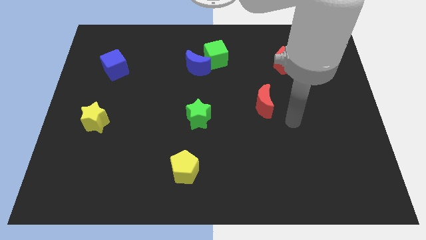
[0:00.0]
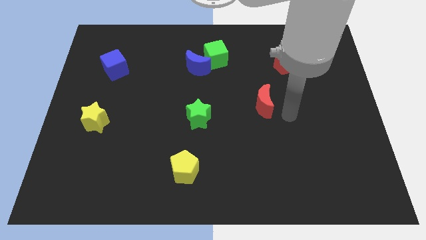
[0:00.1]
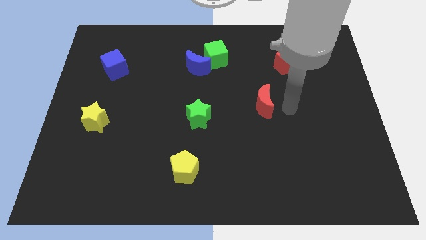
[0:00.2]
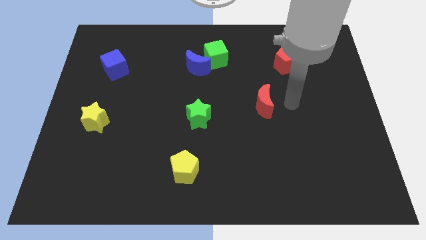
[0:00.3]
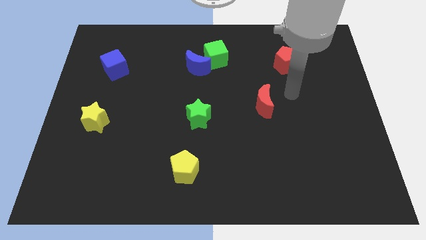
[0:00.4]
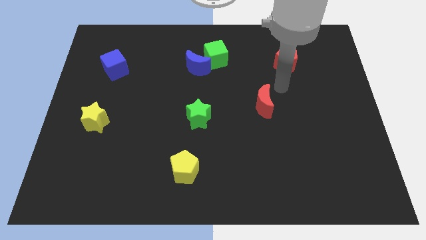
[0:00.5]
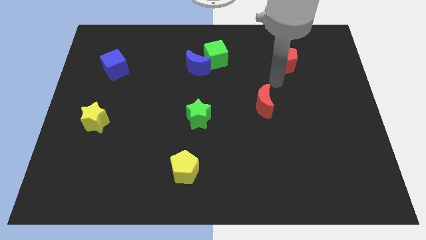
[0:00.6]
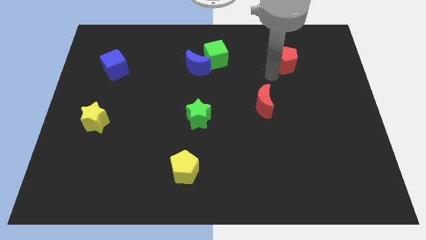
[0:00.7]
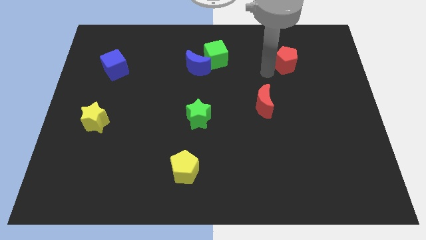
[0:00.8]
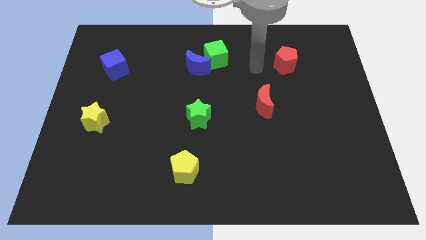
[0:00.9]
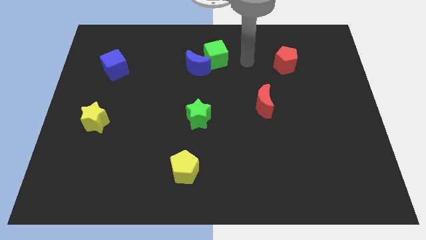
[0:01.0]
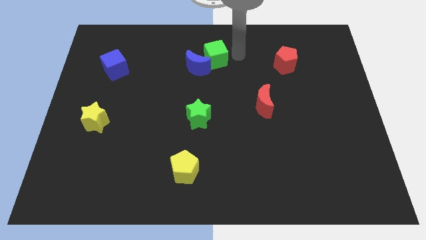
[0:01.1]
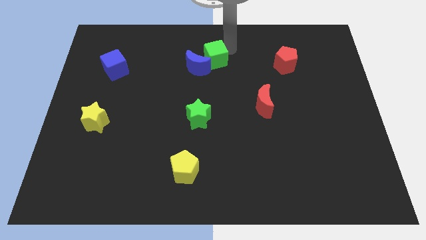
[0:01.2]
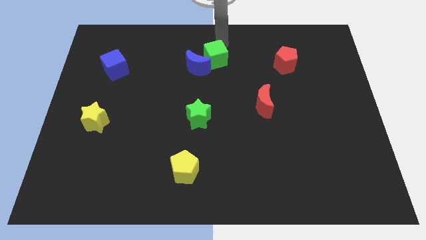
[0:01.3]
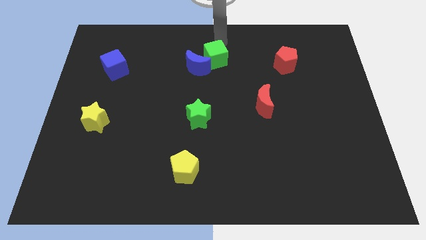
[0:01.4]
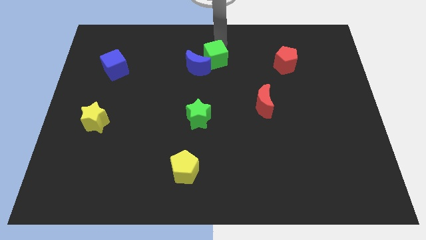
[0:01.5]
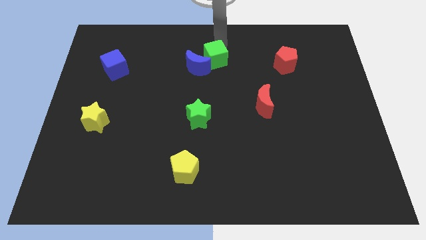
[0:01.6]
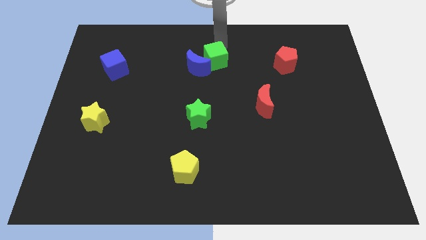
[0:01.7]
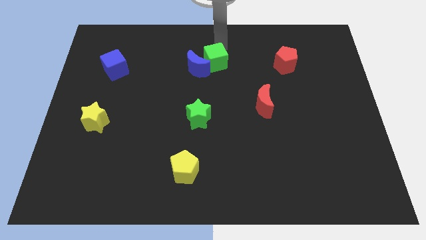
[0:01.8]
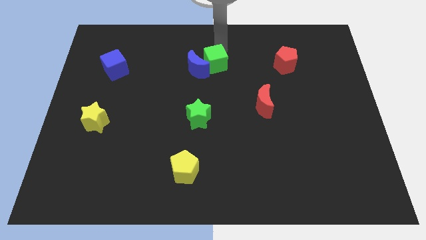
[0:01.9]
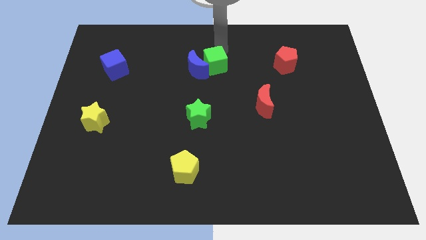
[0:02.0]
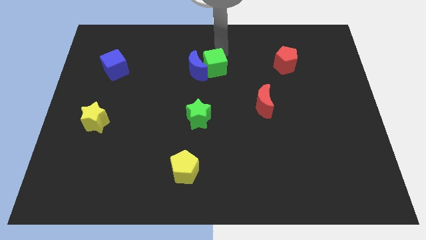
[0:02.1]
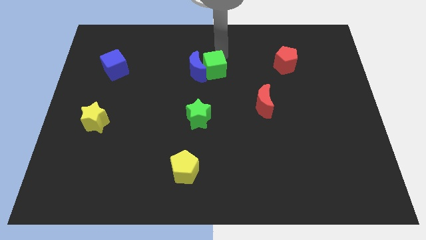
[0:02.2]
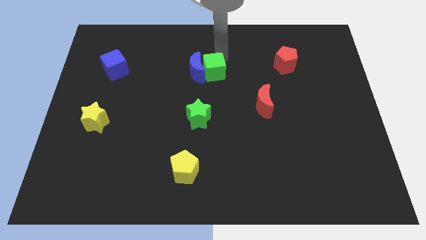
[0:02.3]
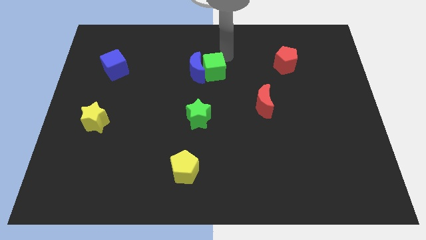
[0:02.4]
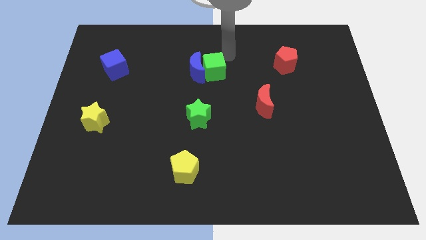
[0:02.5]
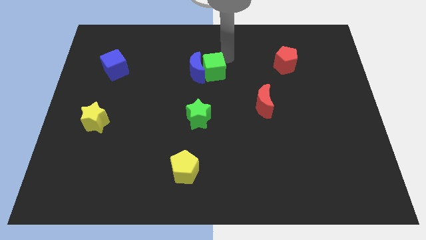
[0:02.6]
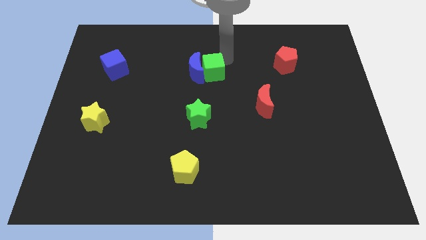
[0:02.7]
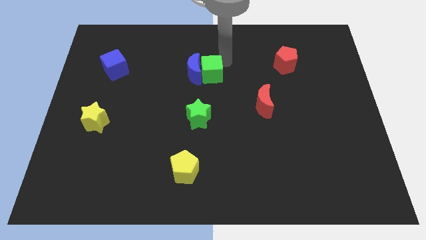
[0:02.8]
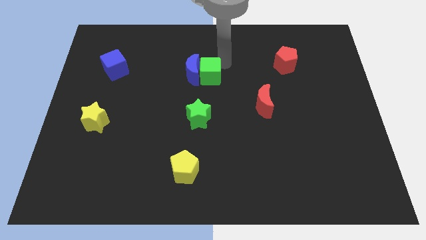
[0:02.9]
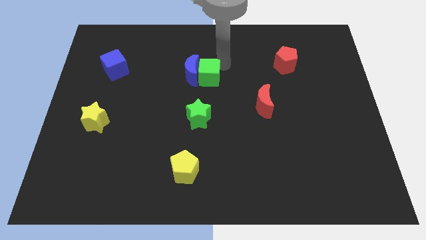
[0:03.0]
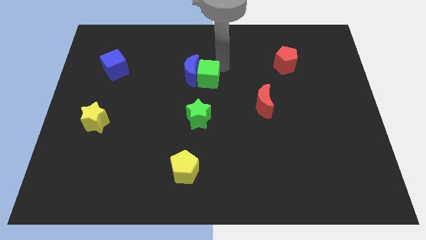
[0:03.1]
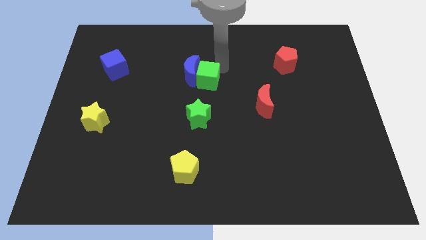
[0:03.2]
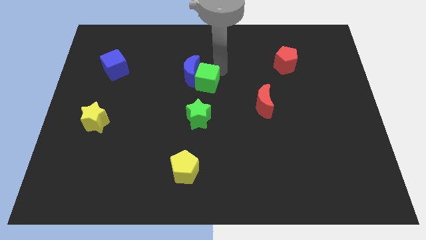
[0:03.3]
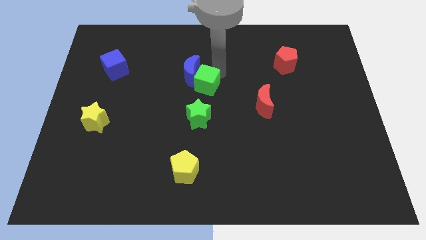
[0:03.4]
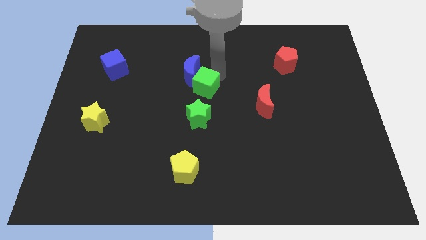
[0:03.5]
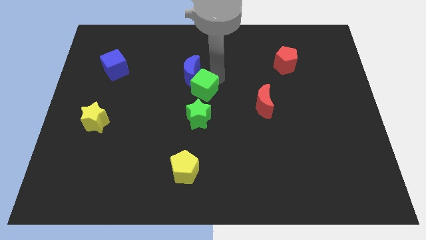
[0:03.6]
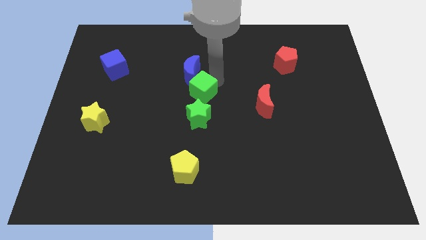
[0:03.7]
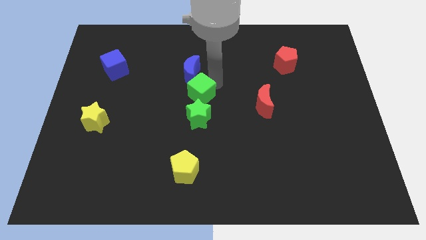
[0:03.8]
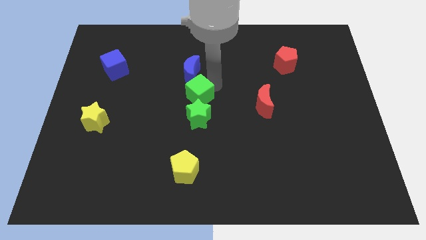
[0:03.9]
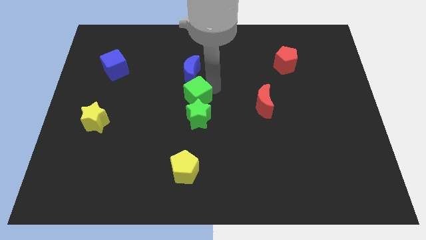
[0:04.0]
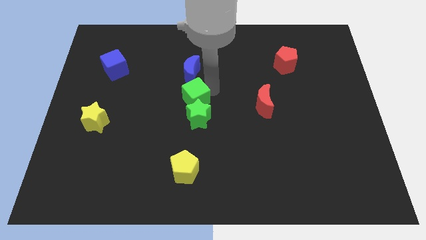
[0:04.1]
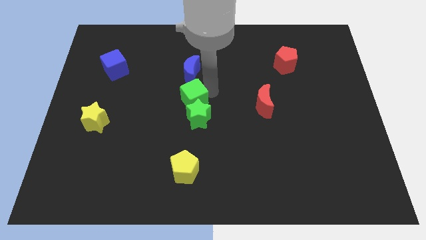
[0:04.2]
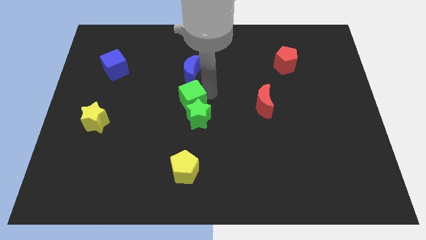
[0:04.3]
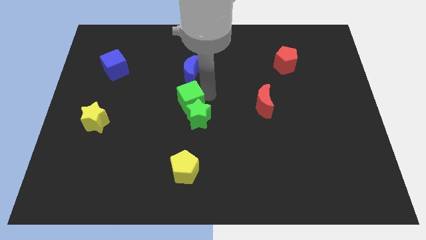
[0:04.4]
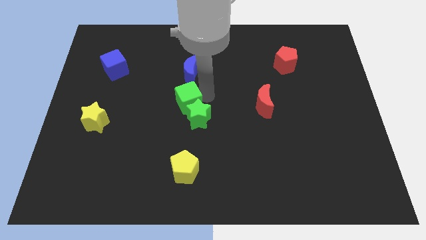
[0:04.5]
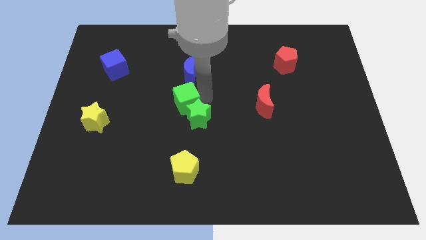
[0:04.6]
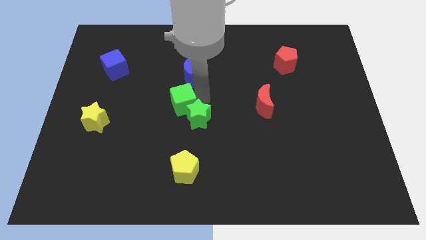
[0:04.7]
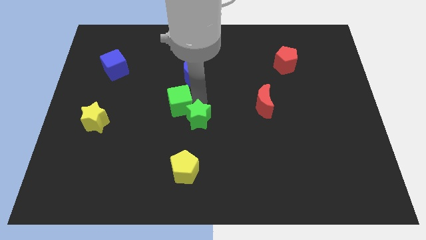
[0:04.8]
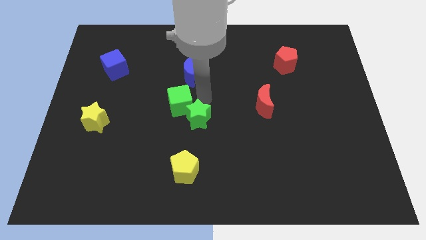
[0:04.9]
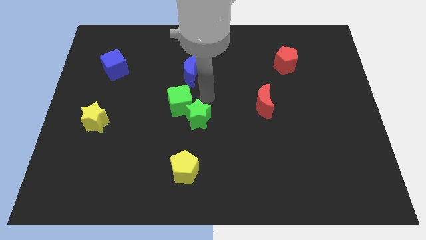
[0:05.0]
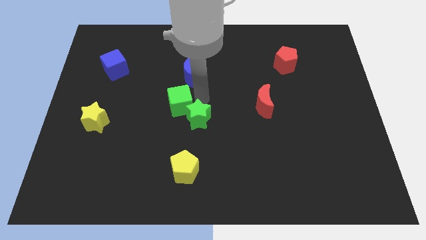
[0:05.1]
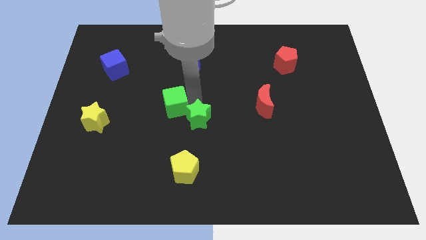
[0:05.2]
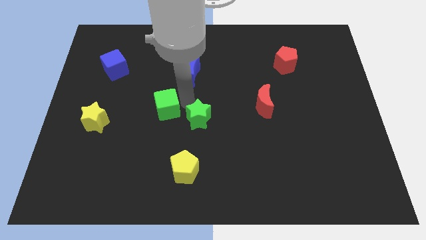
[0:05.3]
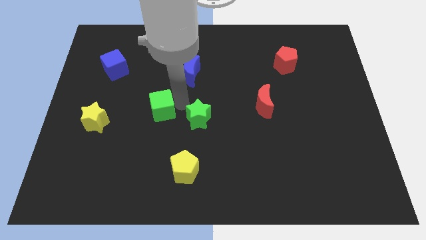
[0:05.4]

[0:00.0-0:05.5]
move the green cube down and then left

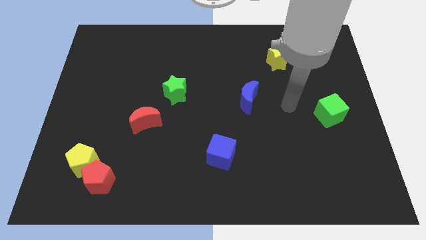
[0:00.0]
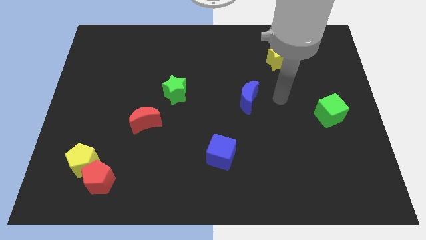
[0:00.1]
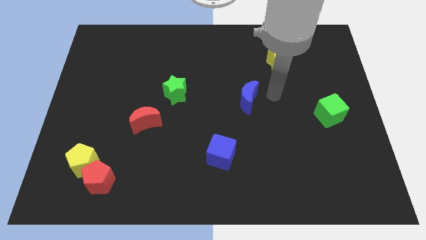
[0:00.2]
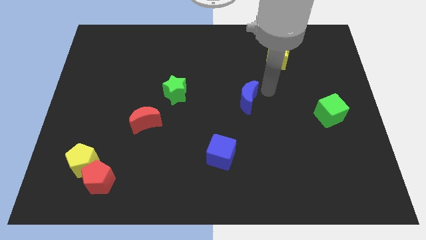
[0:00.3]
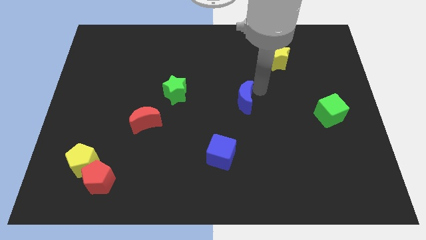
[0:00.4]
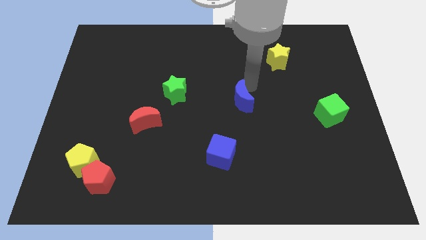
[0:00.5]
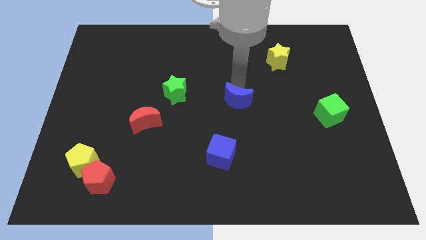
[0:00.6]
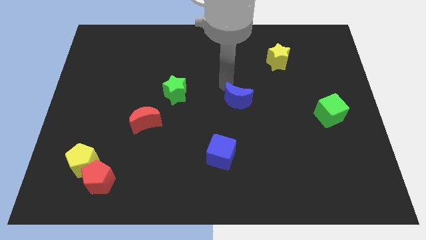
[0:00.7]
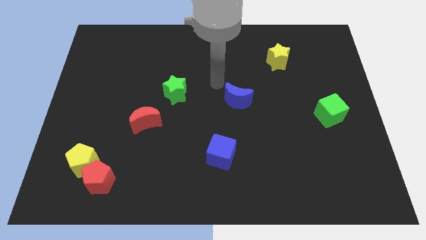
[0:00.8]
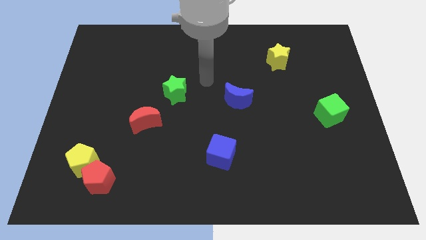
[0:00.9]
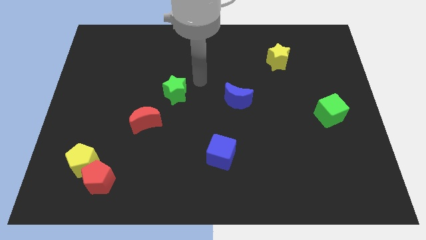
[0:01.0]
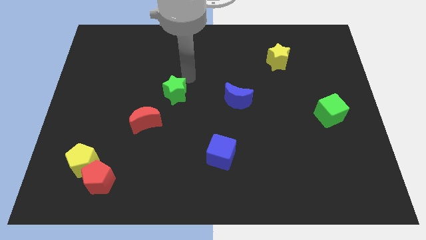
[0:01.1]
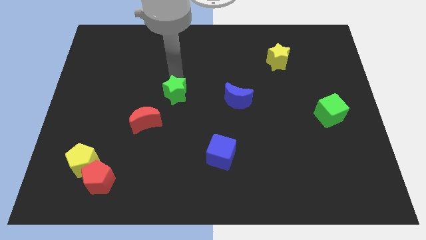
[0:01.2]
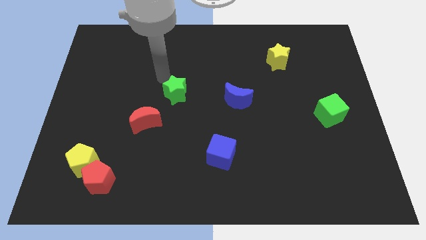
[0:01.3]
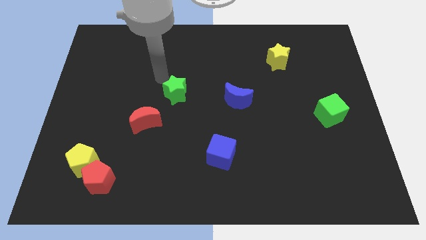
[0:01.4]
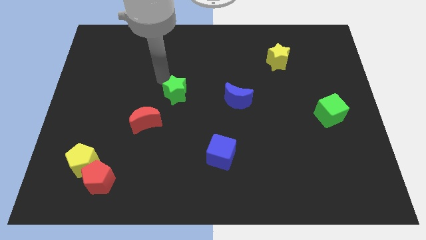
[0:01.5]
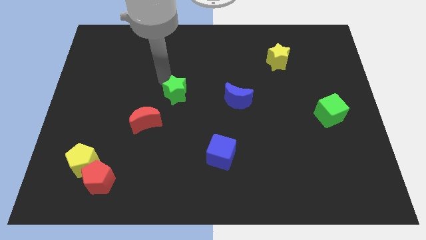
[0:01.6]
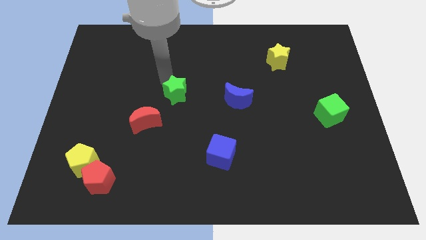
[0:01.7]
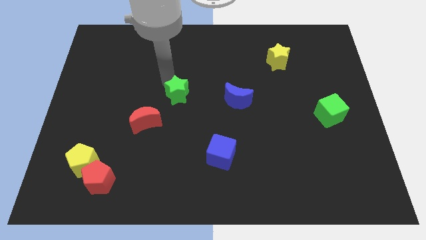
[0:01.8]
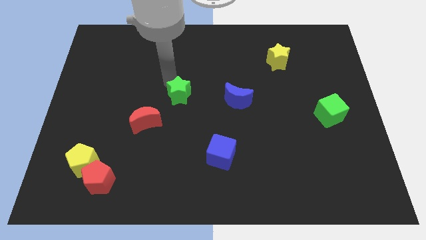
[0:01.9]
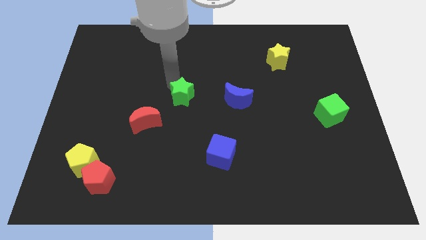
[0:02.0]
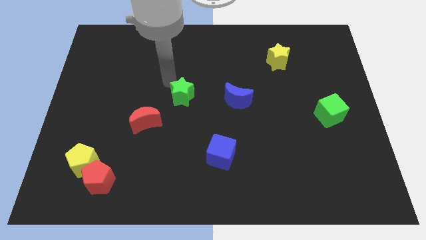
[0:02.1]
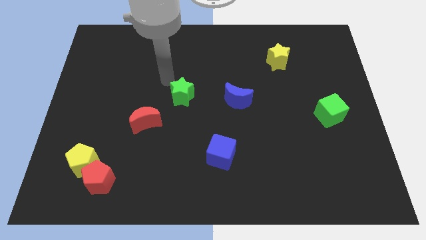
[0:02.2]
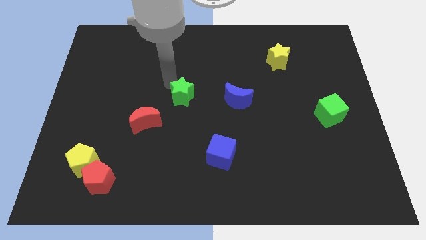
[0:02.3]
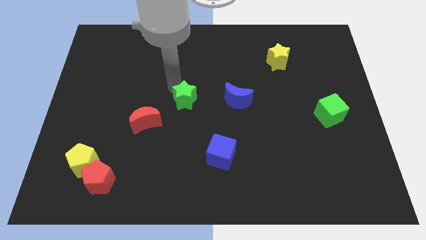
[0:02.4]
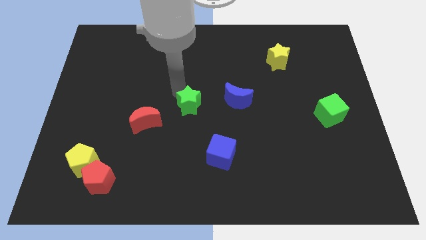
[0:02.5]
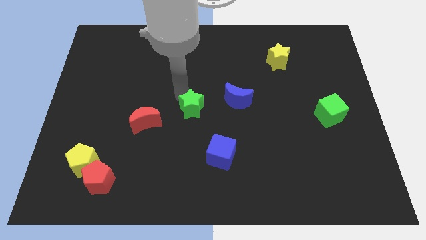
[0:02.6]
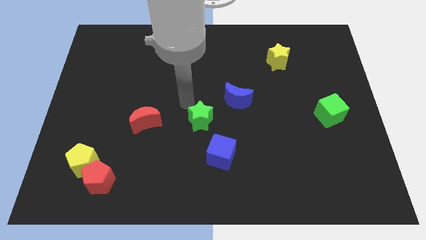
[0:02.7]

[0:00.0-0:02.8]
slide the green star diagonally down and to the right somewhat
